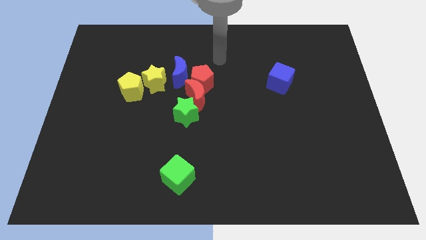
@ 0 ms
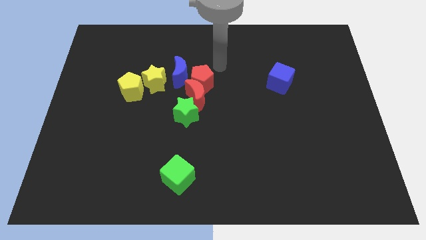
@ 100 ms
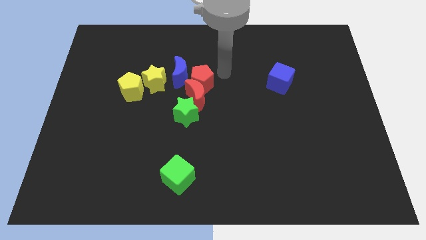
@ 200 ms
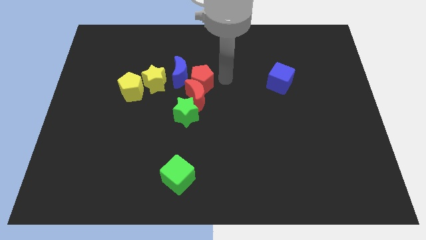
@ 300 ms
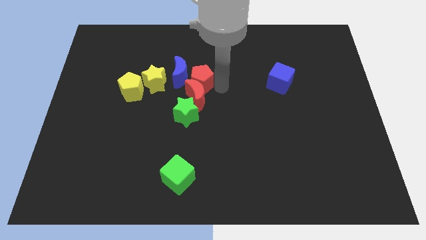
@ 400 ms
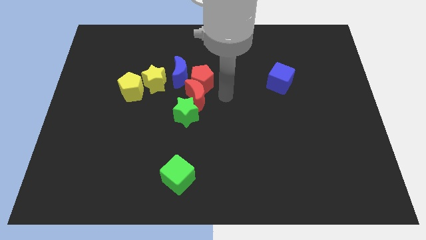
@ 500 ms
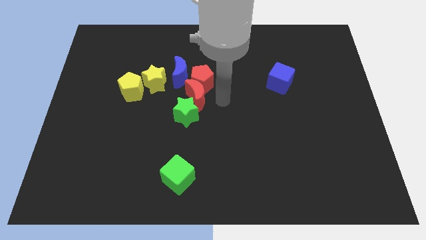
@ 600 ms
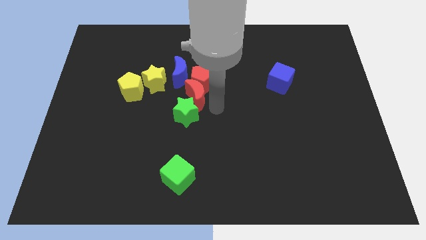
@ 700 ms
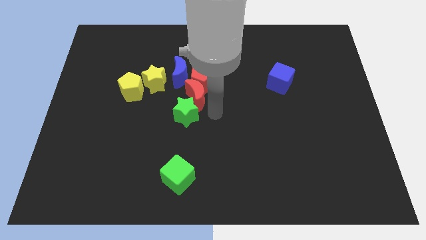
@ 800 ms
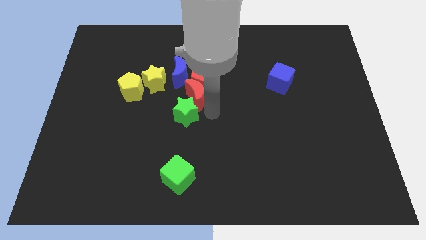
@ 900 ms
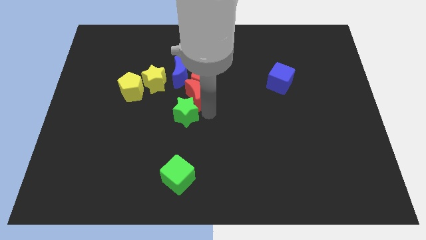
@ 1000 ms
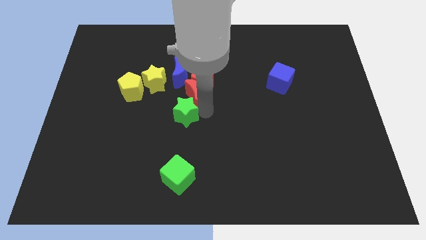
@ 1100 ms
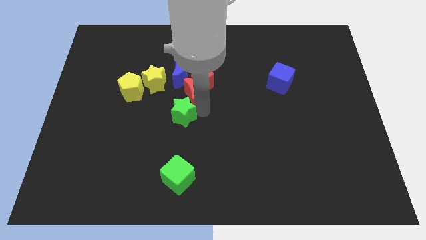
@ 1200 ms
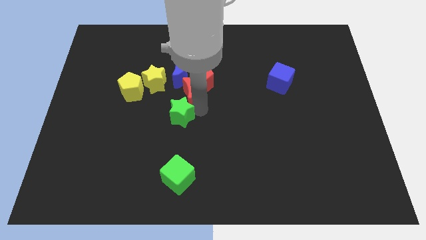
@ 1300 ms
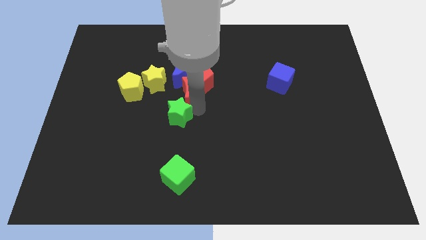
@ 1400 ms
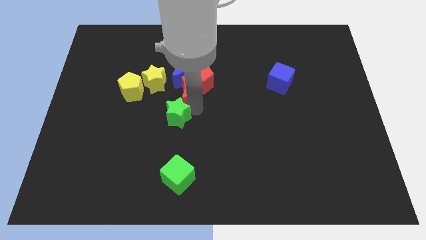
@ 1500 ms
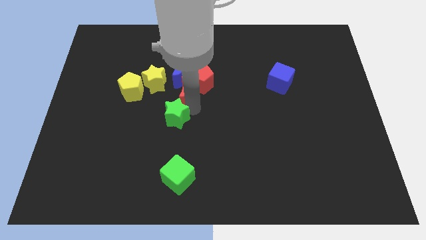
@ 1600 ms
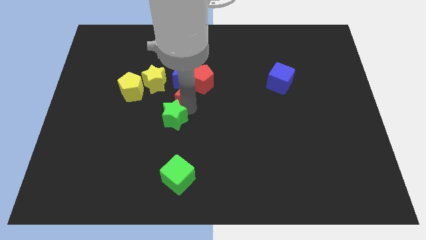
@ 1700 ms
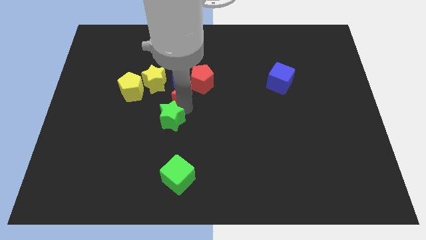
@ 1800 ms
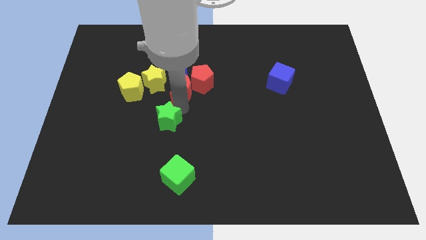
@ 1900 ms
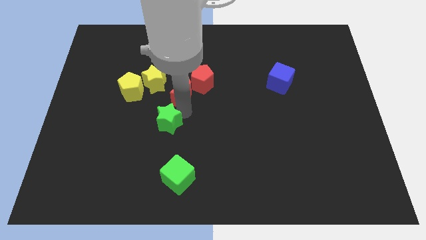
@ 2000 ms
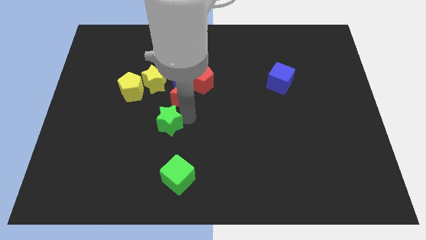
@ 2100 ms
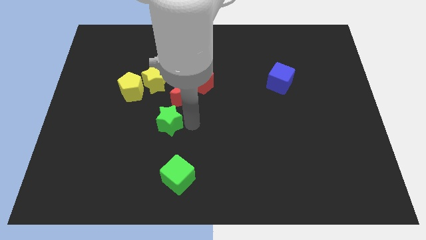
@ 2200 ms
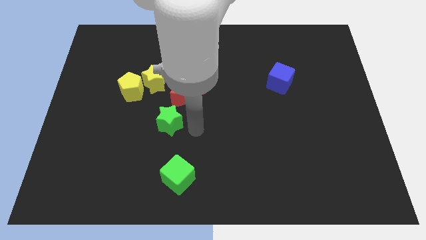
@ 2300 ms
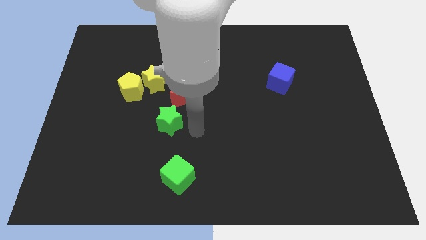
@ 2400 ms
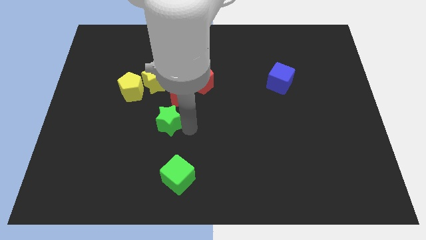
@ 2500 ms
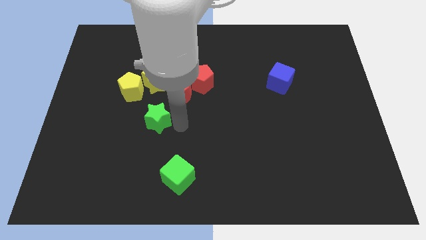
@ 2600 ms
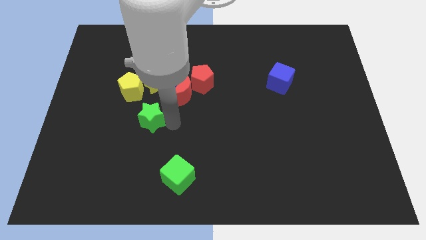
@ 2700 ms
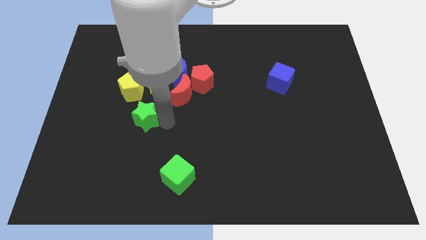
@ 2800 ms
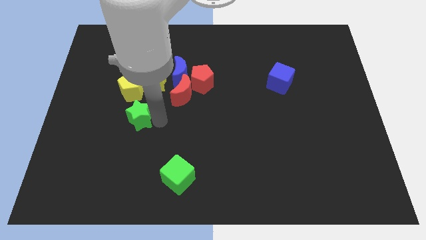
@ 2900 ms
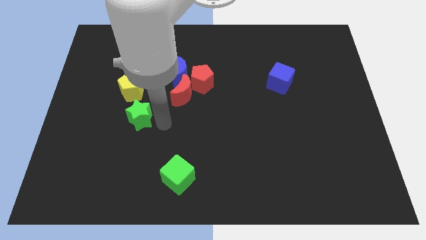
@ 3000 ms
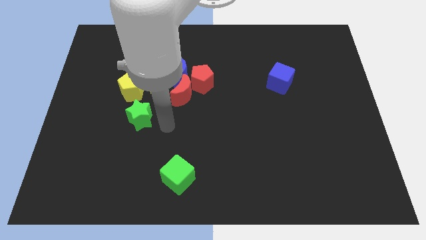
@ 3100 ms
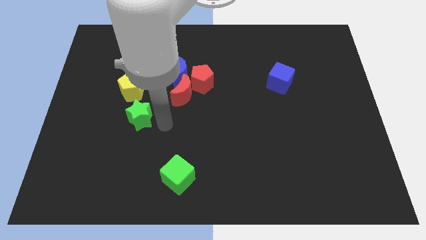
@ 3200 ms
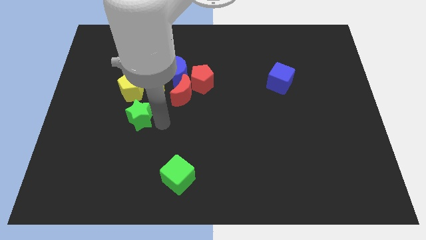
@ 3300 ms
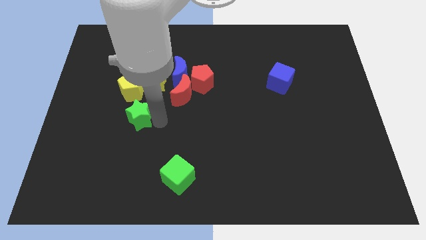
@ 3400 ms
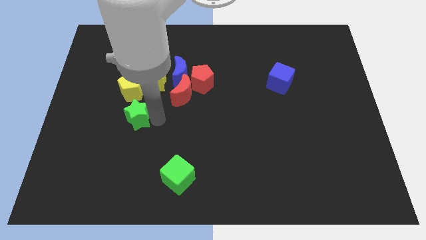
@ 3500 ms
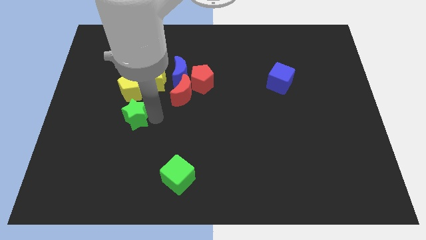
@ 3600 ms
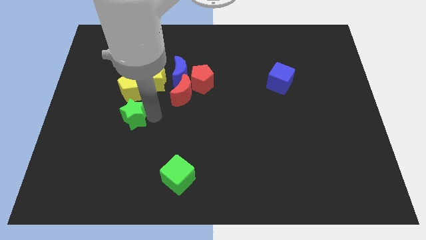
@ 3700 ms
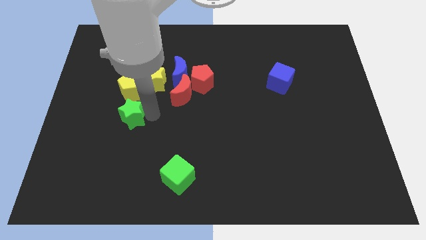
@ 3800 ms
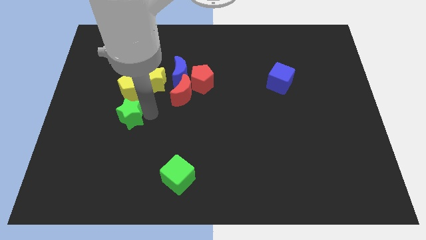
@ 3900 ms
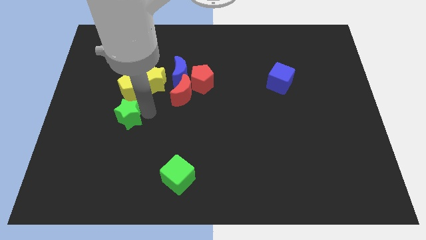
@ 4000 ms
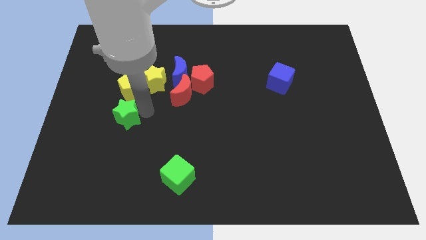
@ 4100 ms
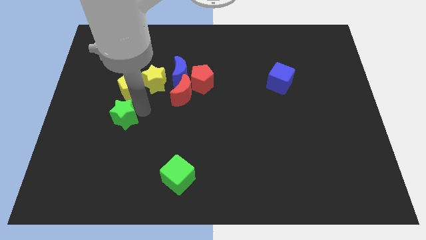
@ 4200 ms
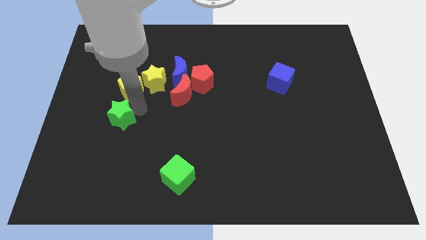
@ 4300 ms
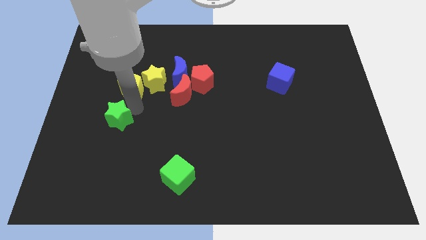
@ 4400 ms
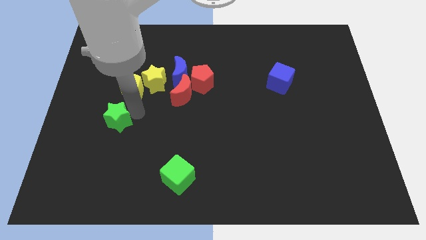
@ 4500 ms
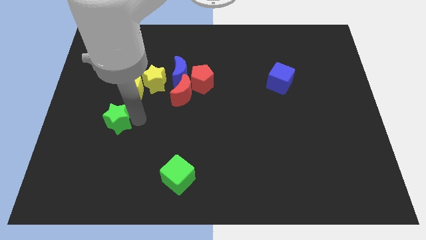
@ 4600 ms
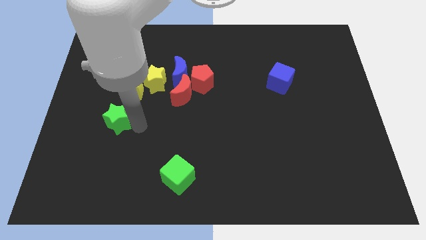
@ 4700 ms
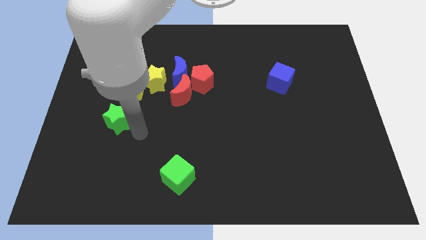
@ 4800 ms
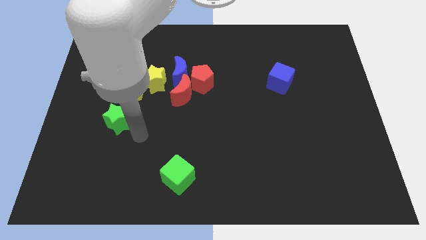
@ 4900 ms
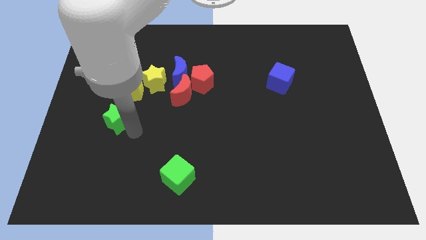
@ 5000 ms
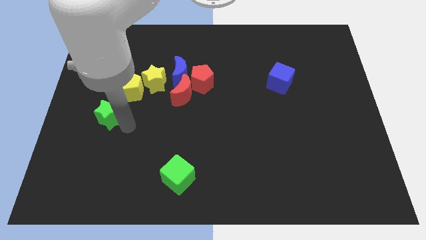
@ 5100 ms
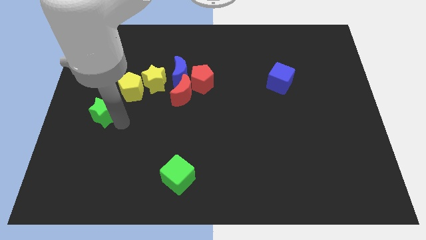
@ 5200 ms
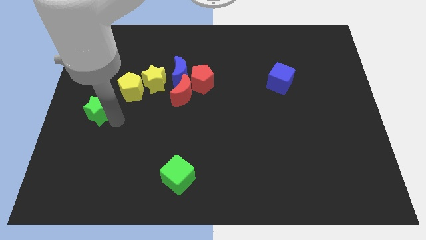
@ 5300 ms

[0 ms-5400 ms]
push the green star to the left side

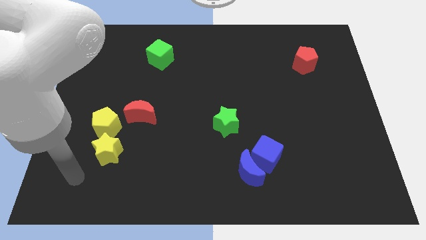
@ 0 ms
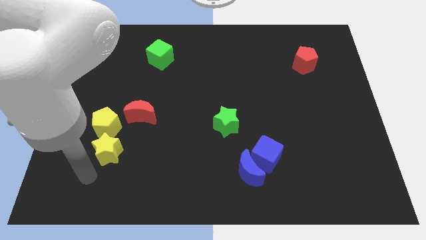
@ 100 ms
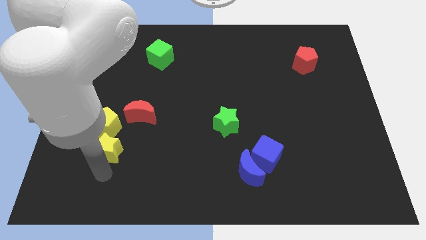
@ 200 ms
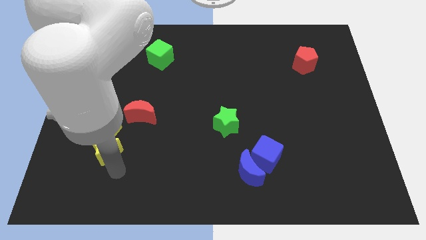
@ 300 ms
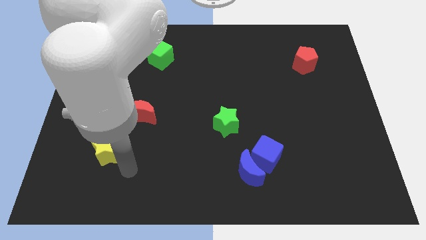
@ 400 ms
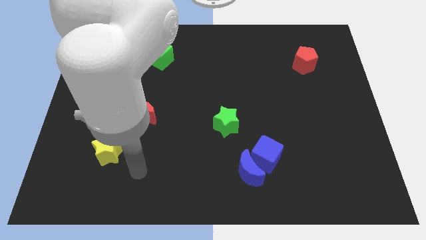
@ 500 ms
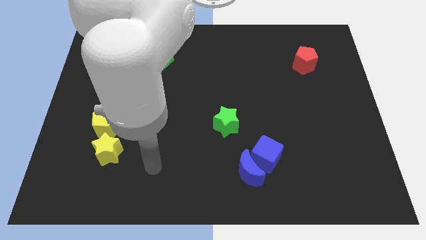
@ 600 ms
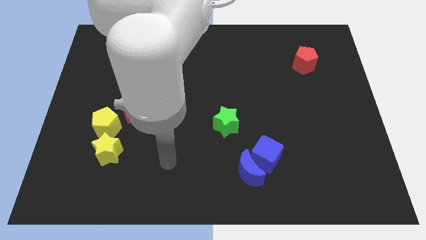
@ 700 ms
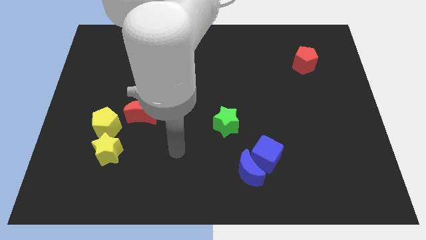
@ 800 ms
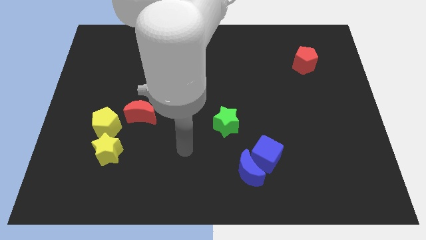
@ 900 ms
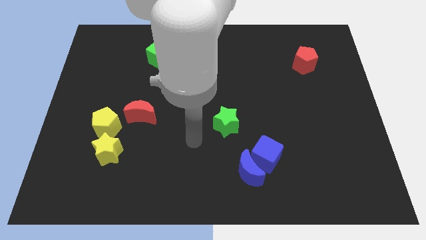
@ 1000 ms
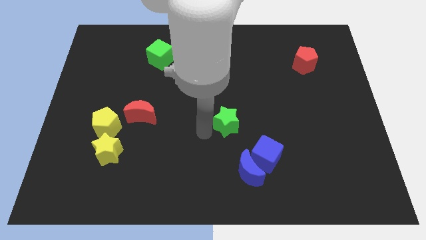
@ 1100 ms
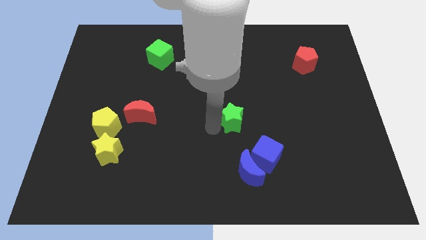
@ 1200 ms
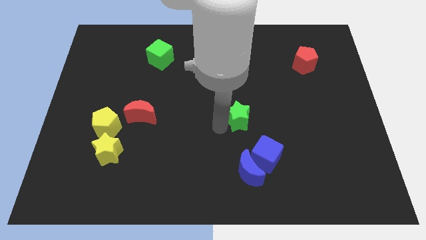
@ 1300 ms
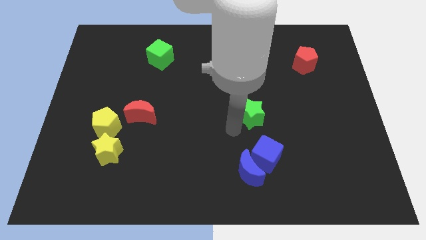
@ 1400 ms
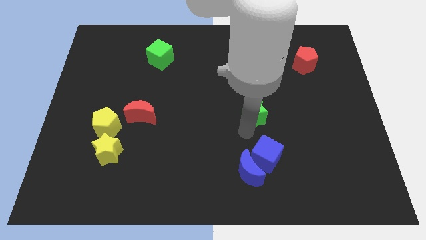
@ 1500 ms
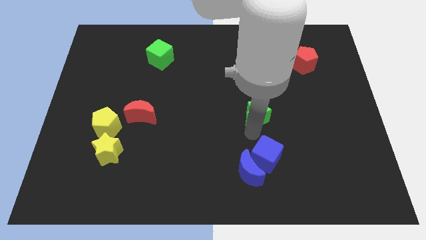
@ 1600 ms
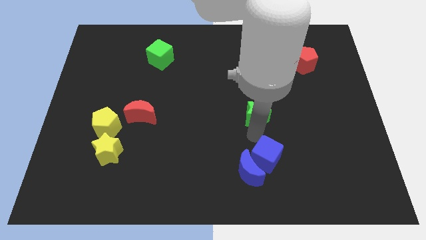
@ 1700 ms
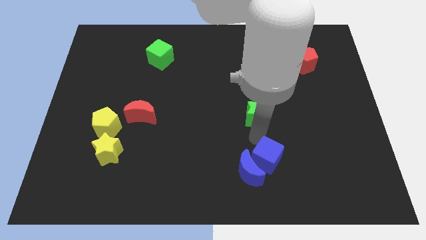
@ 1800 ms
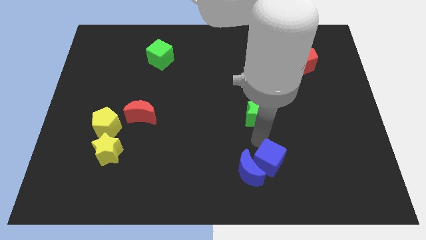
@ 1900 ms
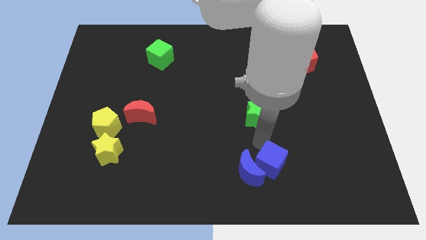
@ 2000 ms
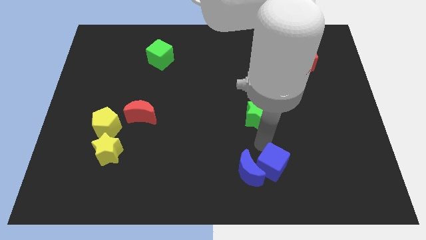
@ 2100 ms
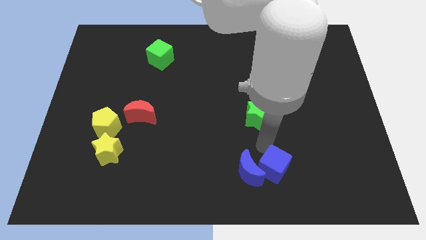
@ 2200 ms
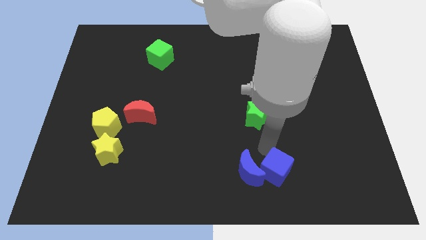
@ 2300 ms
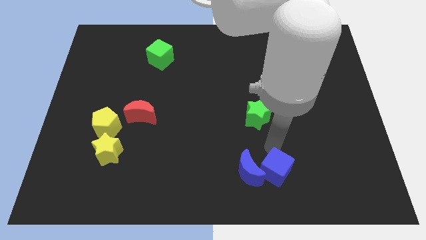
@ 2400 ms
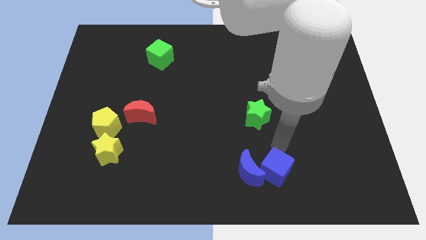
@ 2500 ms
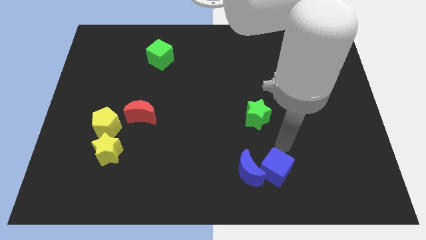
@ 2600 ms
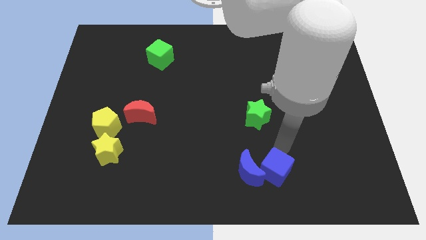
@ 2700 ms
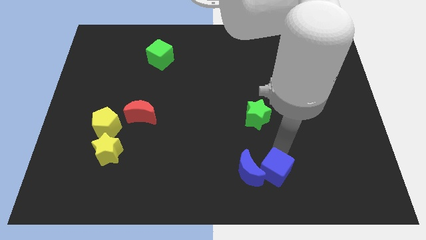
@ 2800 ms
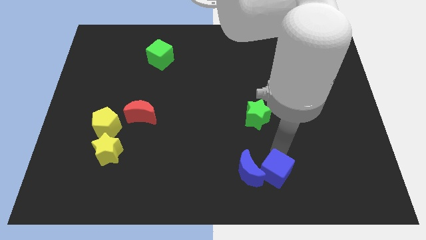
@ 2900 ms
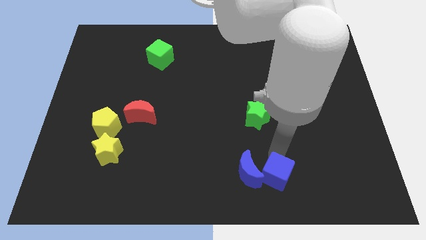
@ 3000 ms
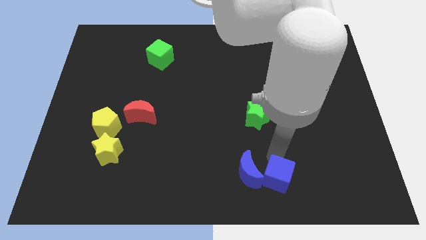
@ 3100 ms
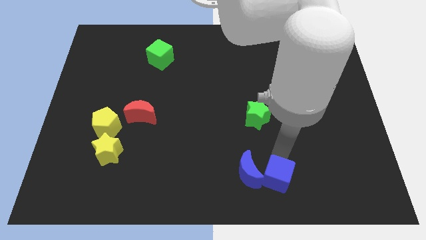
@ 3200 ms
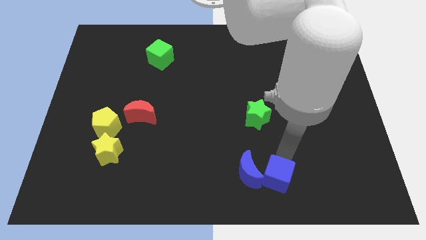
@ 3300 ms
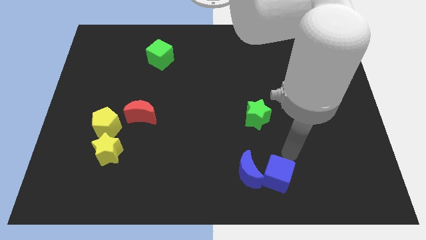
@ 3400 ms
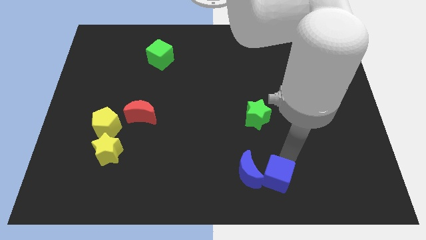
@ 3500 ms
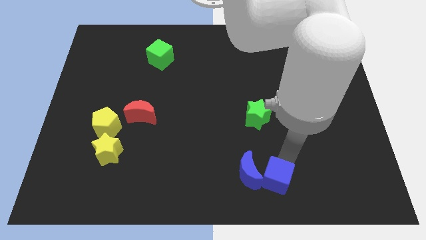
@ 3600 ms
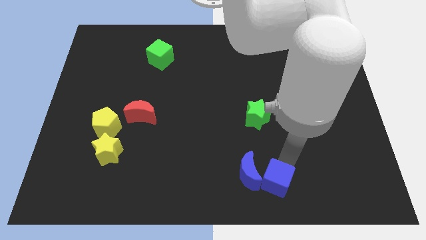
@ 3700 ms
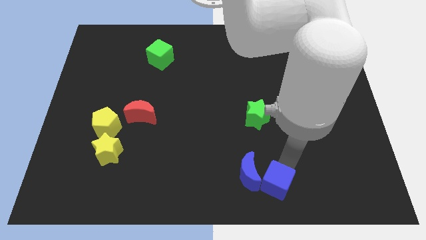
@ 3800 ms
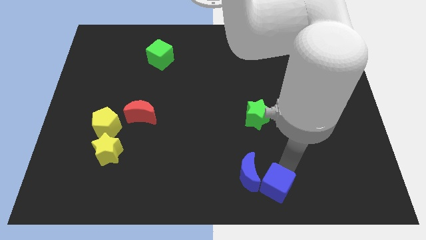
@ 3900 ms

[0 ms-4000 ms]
put the blue cube to the bottom side
